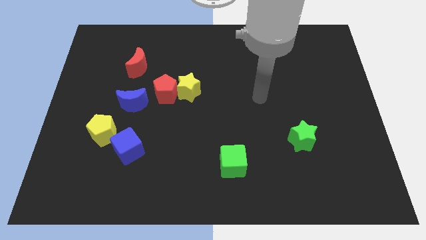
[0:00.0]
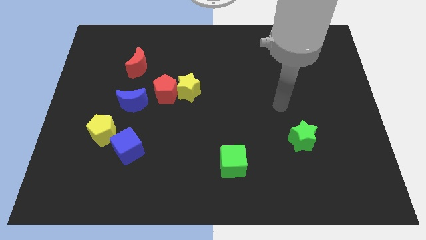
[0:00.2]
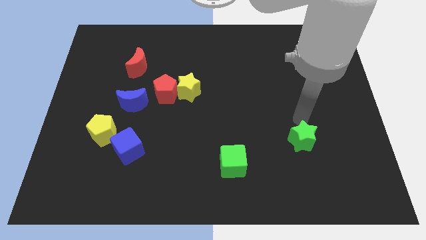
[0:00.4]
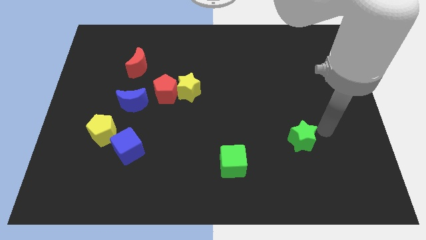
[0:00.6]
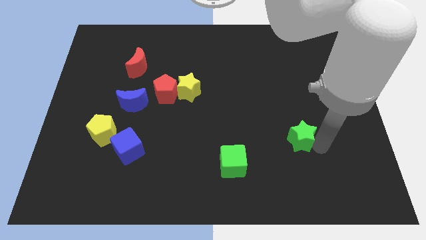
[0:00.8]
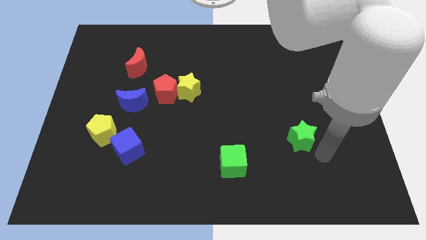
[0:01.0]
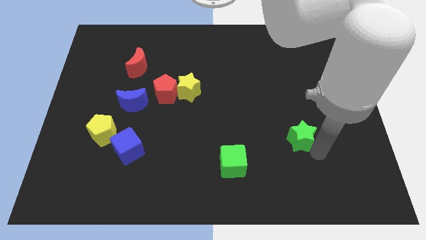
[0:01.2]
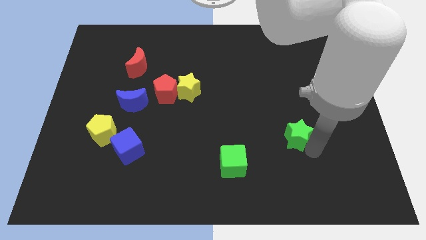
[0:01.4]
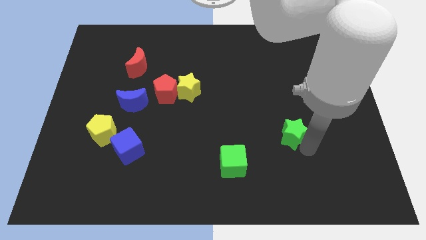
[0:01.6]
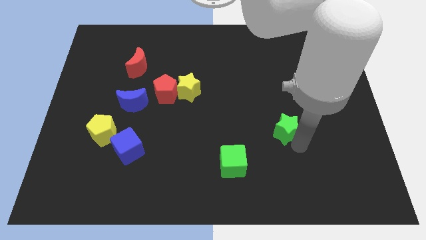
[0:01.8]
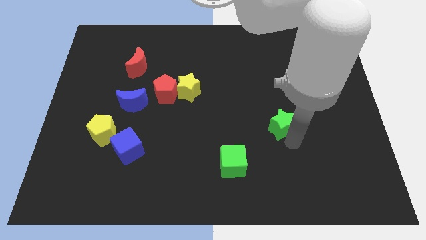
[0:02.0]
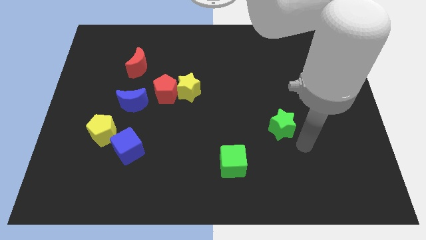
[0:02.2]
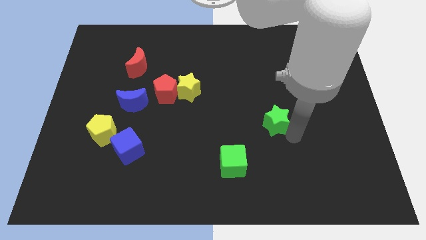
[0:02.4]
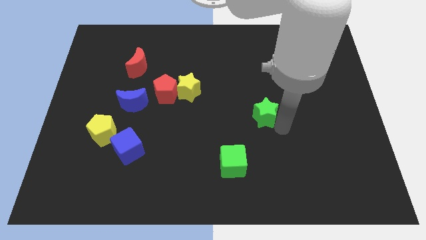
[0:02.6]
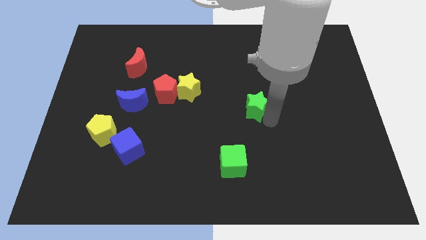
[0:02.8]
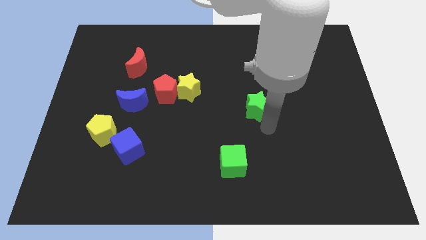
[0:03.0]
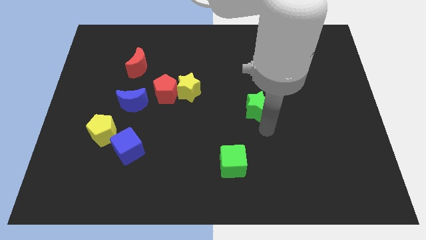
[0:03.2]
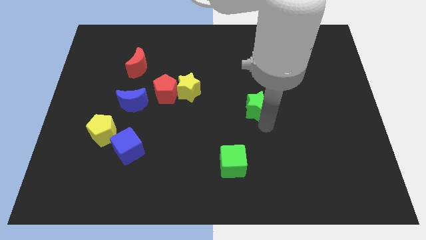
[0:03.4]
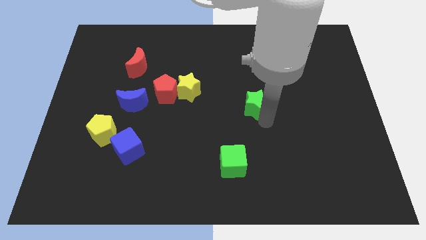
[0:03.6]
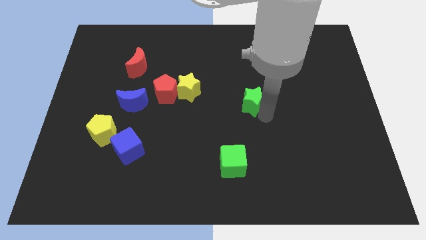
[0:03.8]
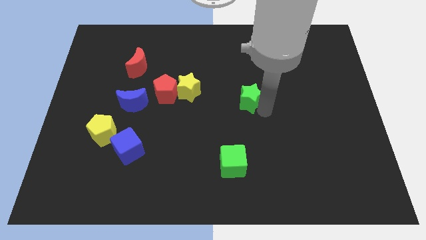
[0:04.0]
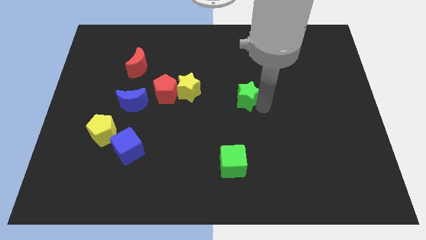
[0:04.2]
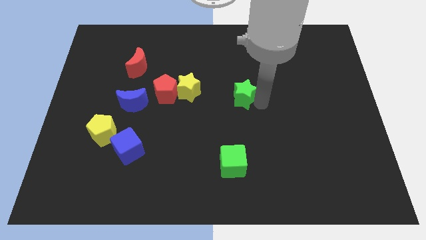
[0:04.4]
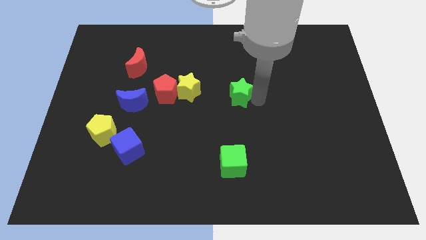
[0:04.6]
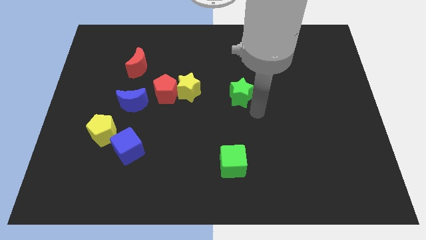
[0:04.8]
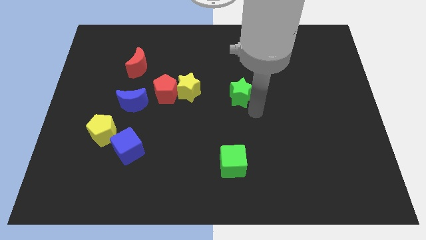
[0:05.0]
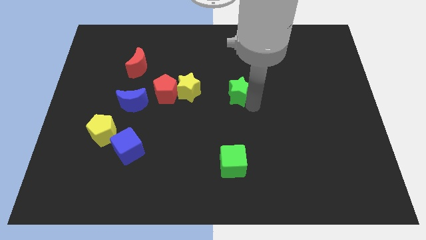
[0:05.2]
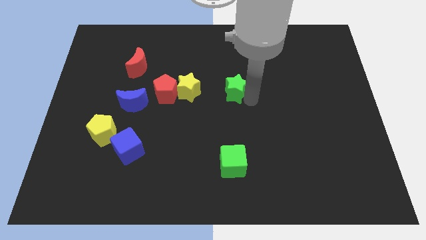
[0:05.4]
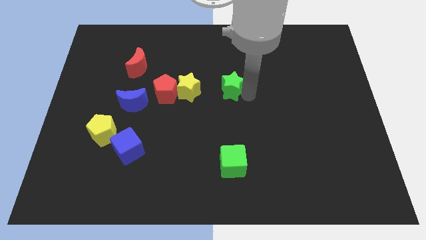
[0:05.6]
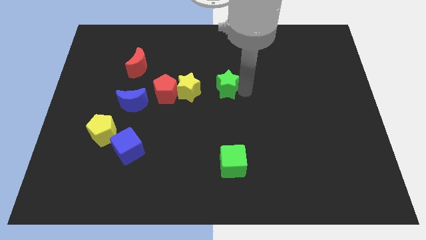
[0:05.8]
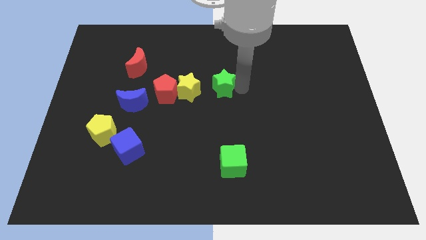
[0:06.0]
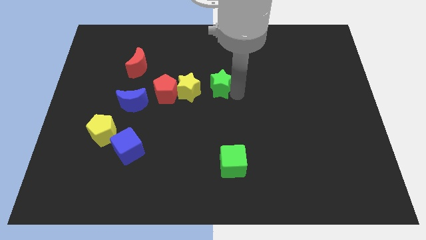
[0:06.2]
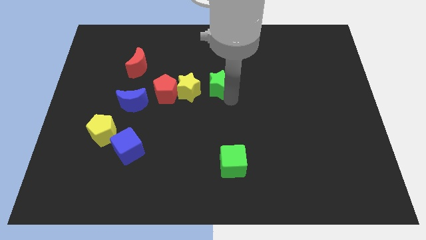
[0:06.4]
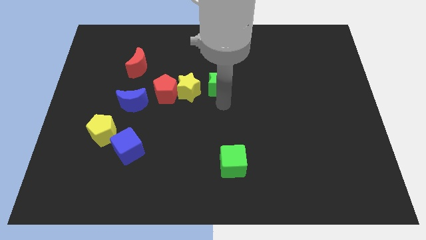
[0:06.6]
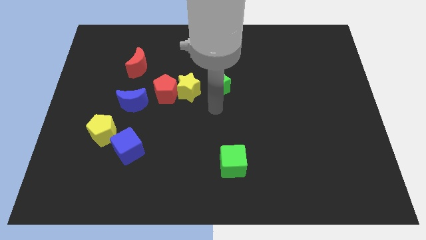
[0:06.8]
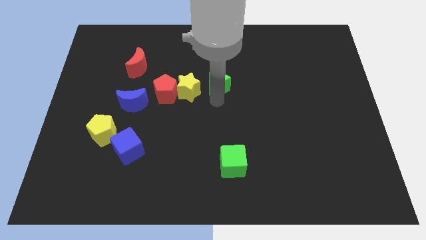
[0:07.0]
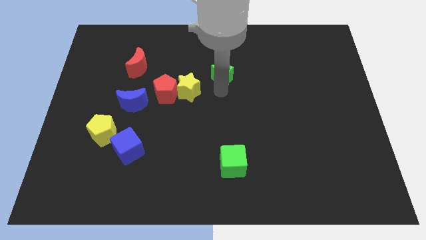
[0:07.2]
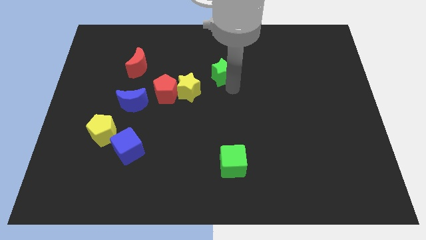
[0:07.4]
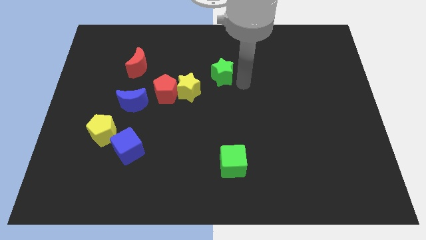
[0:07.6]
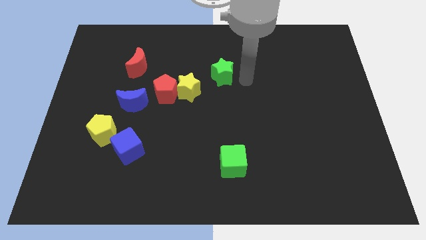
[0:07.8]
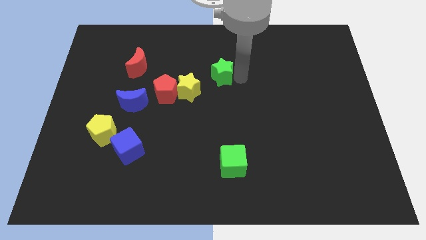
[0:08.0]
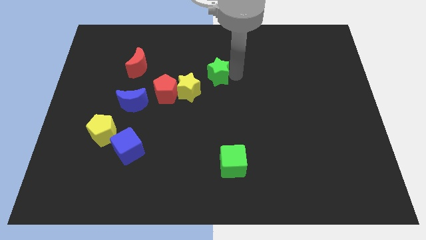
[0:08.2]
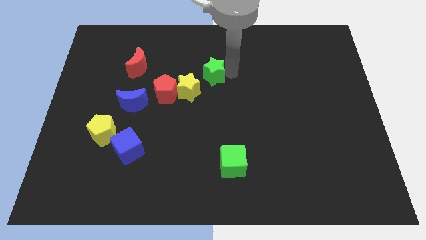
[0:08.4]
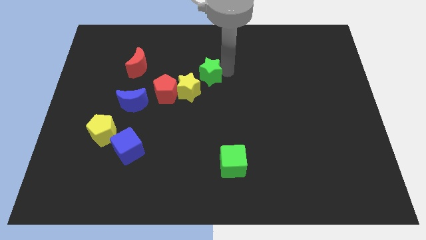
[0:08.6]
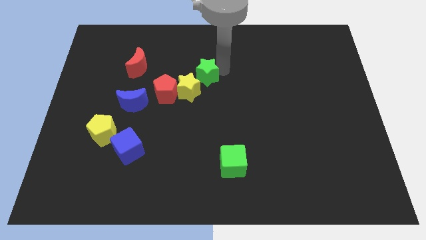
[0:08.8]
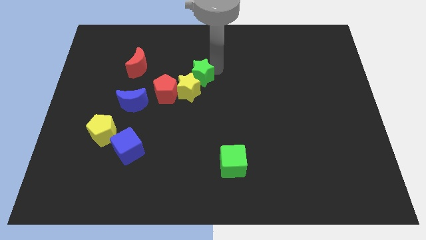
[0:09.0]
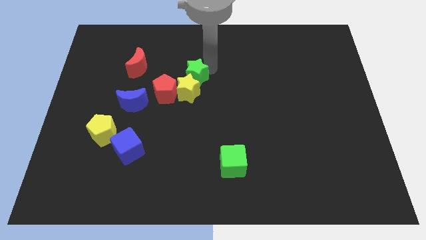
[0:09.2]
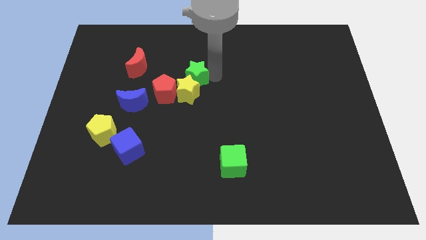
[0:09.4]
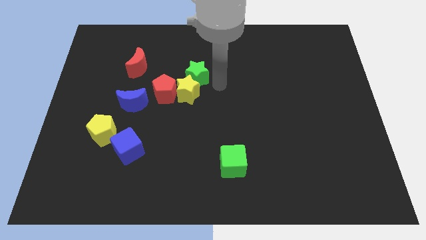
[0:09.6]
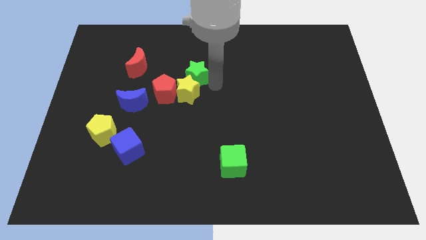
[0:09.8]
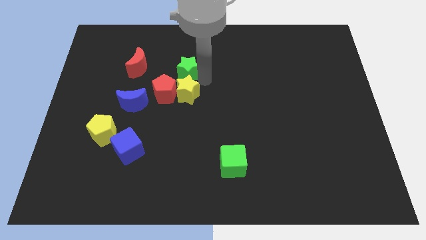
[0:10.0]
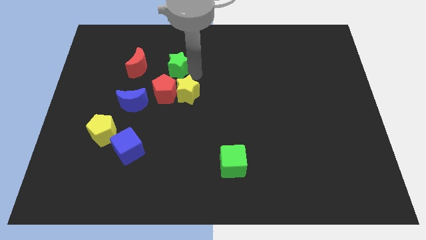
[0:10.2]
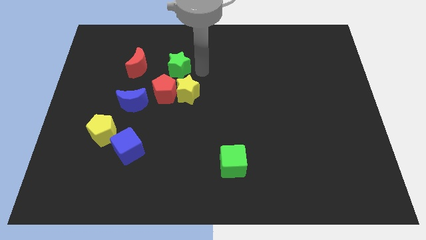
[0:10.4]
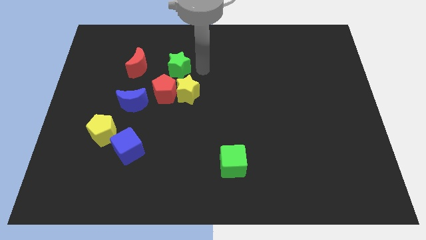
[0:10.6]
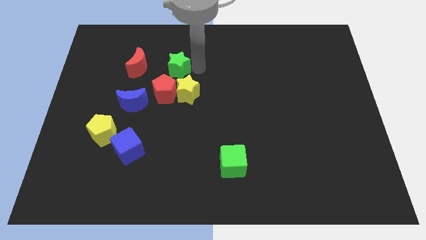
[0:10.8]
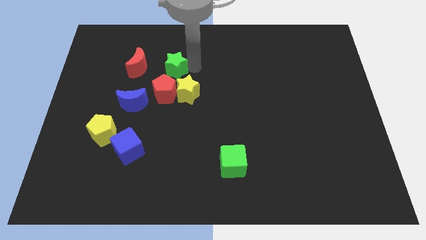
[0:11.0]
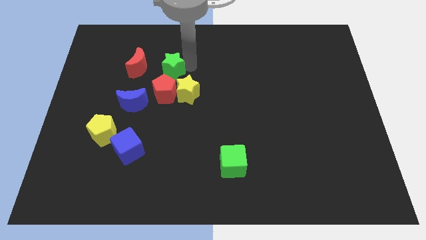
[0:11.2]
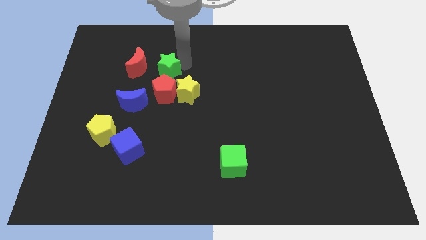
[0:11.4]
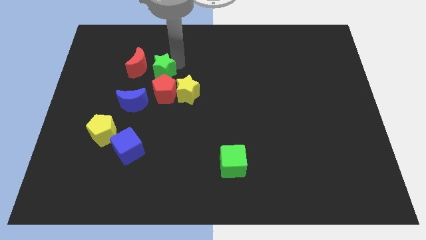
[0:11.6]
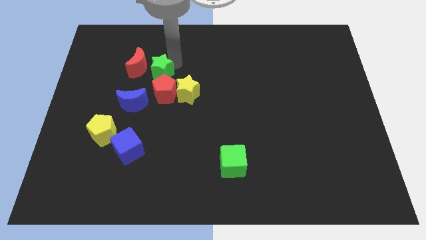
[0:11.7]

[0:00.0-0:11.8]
put the green star close to the red moon
